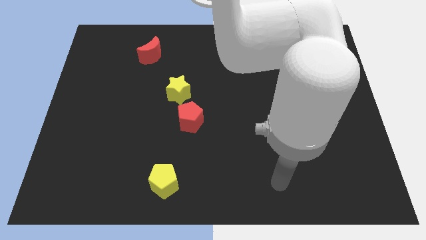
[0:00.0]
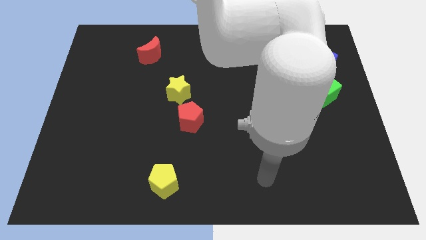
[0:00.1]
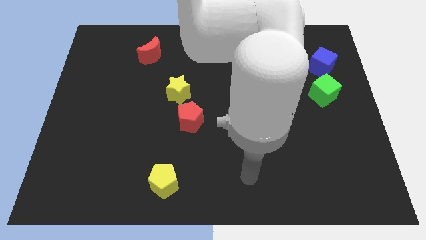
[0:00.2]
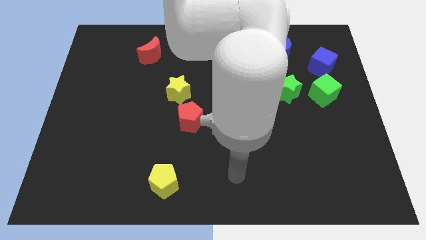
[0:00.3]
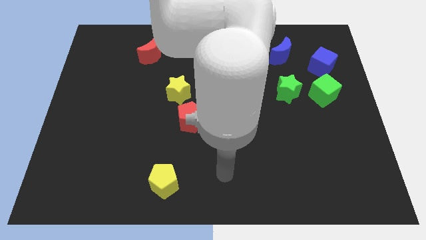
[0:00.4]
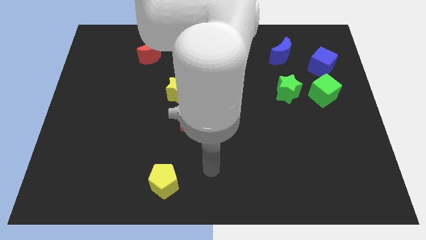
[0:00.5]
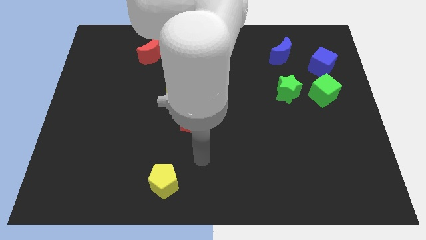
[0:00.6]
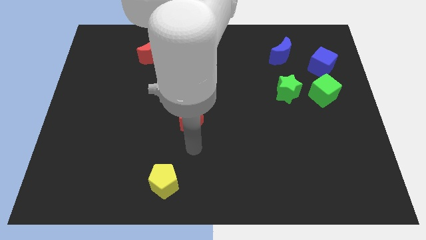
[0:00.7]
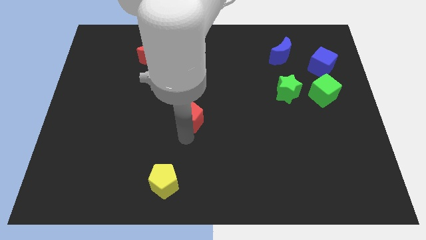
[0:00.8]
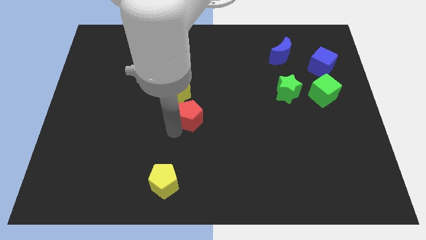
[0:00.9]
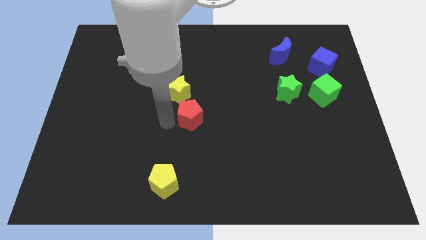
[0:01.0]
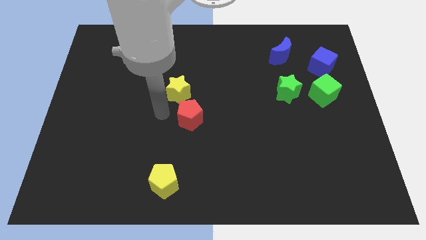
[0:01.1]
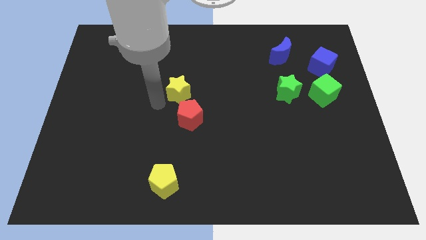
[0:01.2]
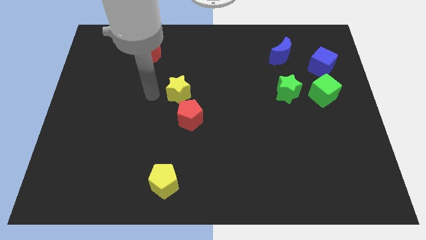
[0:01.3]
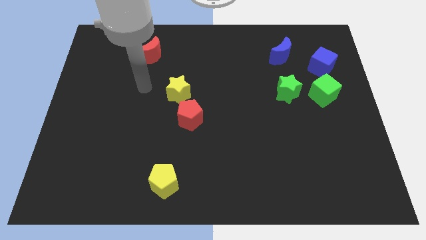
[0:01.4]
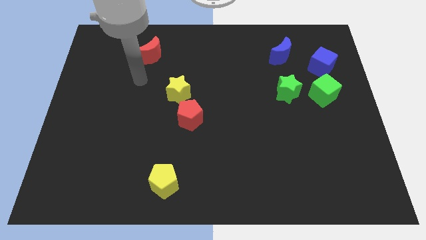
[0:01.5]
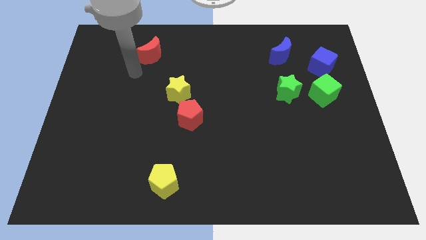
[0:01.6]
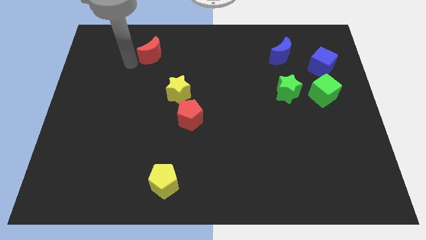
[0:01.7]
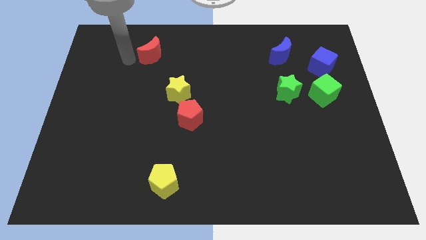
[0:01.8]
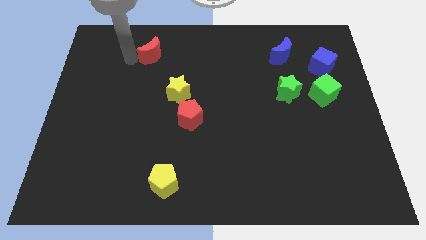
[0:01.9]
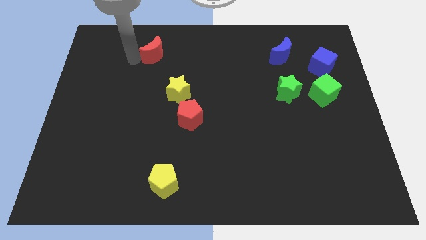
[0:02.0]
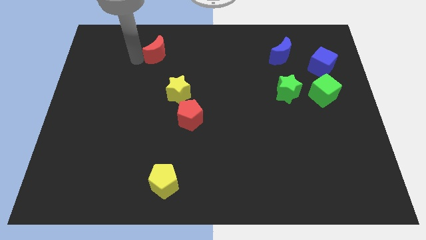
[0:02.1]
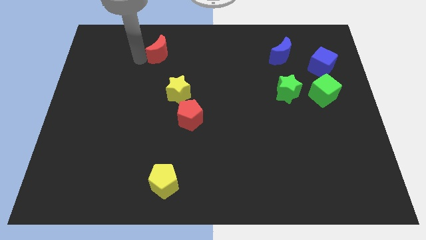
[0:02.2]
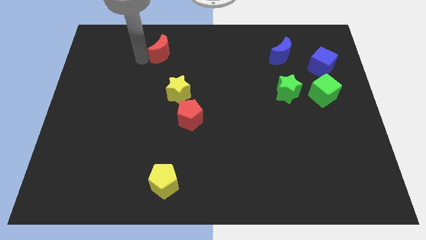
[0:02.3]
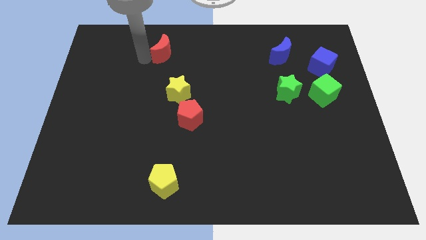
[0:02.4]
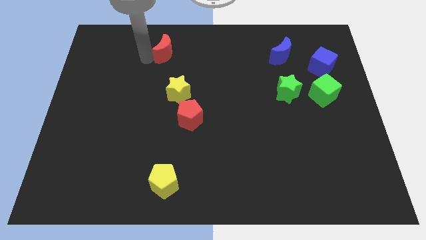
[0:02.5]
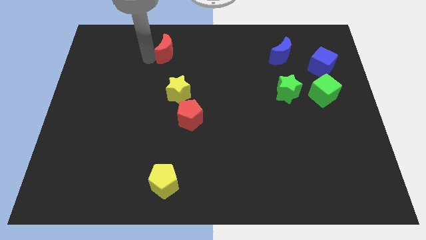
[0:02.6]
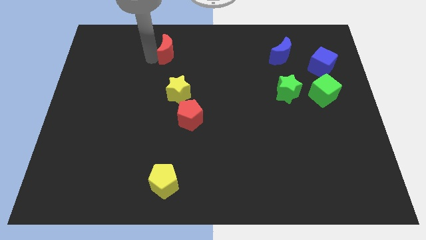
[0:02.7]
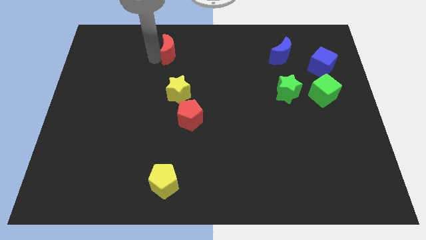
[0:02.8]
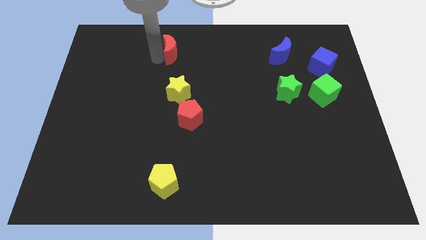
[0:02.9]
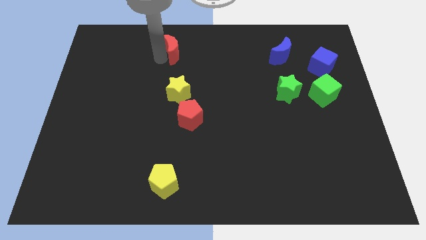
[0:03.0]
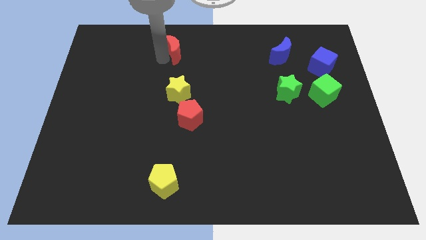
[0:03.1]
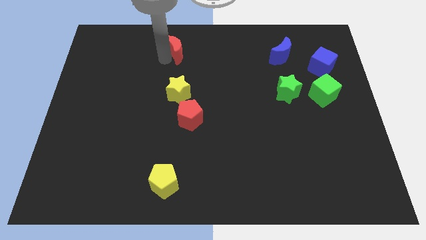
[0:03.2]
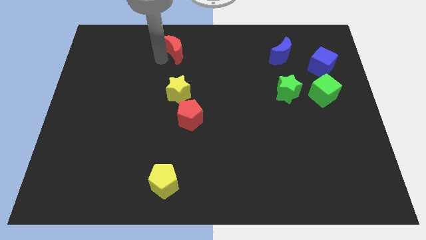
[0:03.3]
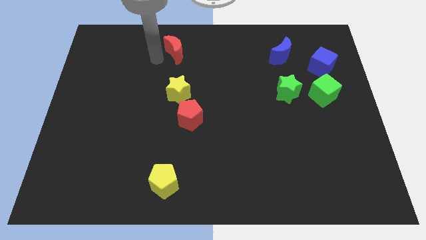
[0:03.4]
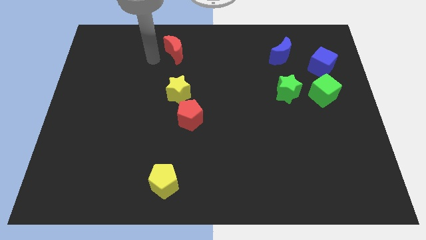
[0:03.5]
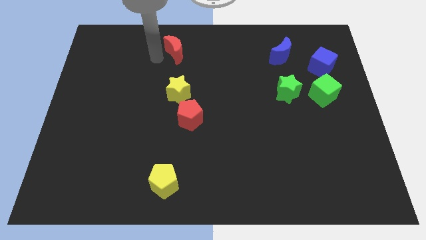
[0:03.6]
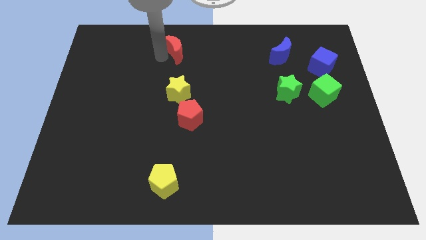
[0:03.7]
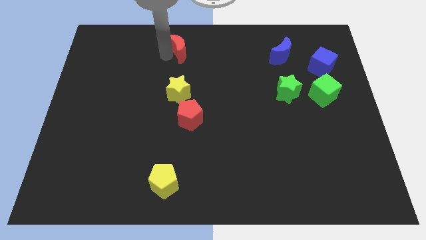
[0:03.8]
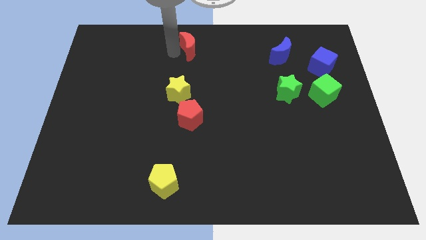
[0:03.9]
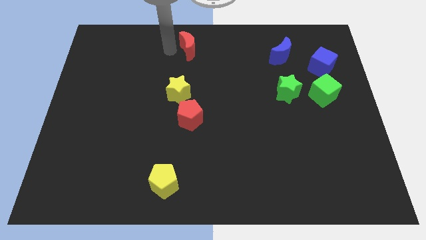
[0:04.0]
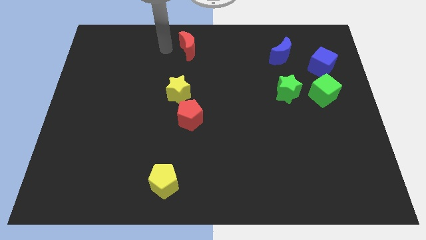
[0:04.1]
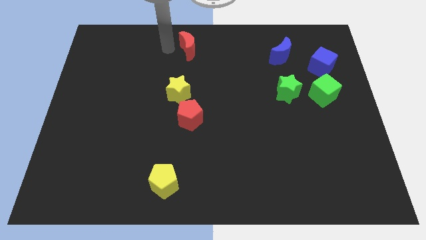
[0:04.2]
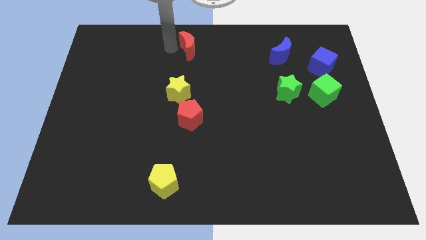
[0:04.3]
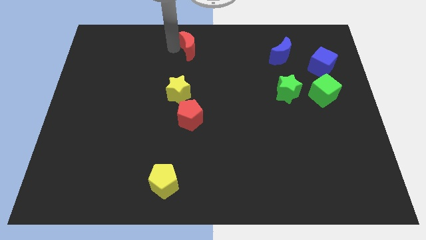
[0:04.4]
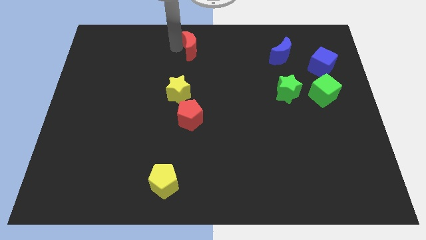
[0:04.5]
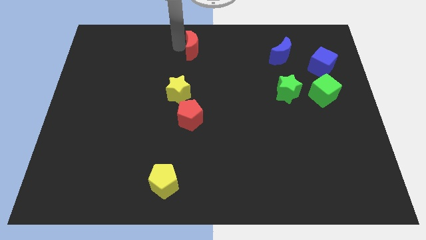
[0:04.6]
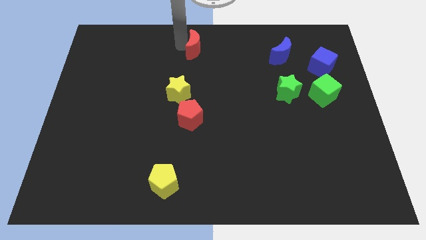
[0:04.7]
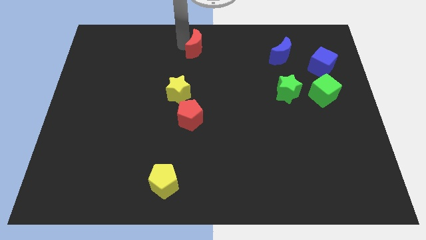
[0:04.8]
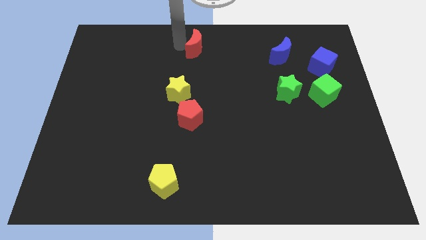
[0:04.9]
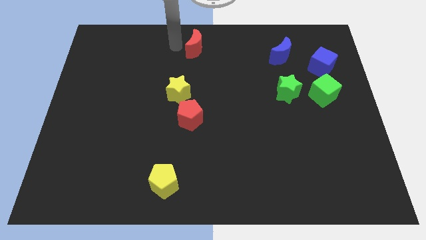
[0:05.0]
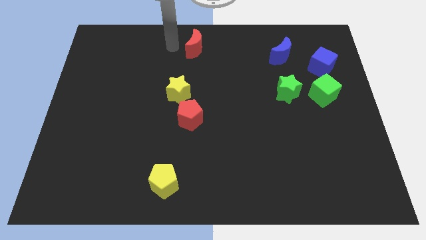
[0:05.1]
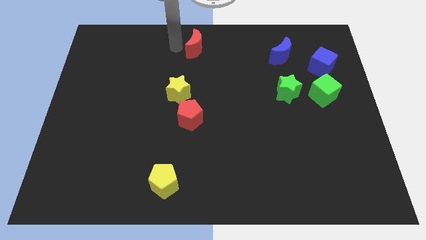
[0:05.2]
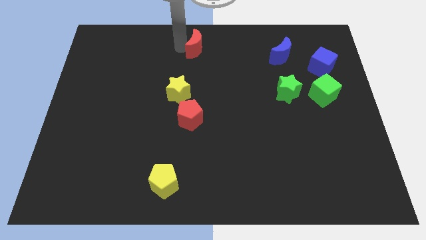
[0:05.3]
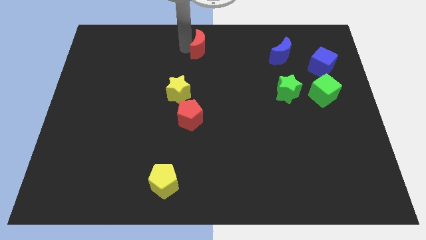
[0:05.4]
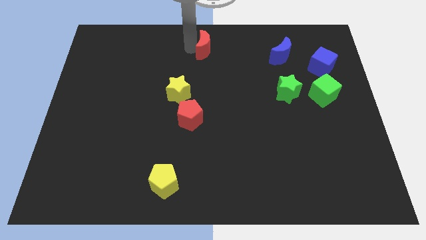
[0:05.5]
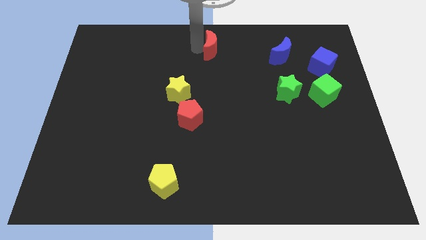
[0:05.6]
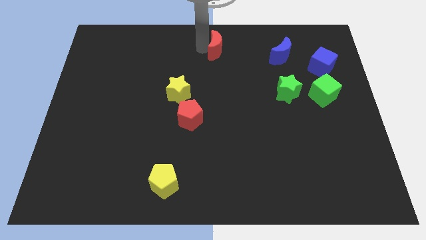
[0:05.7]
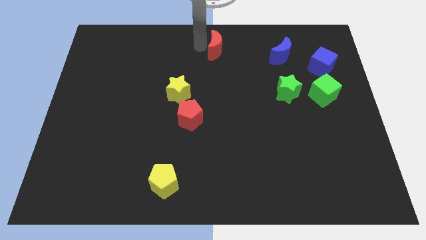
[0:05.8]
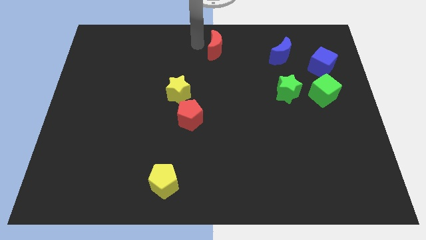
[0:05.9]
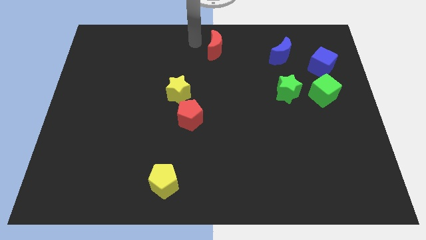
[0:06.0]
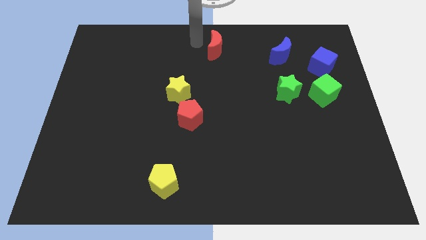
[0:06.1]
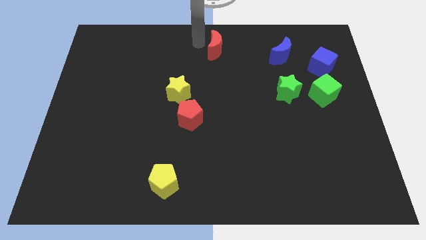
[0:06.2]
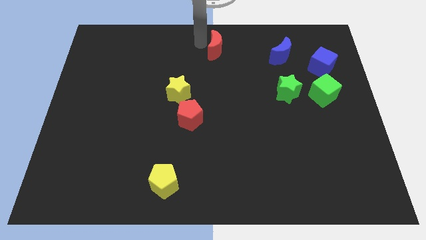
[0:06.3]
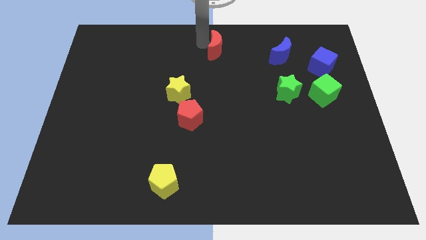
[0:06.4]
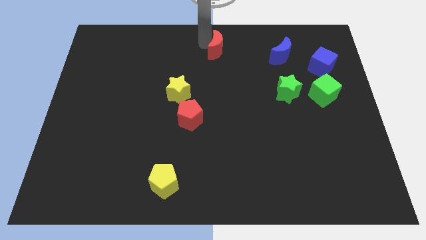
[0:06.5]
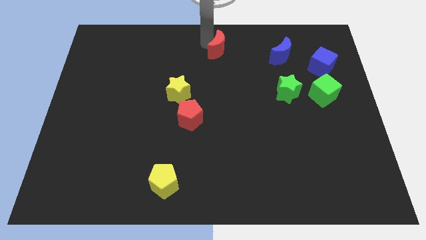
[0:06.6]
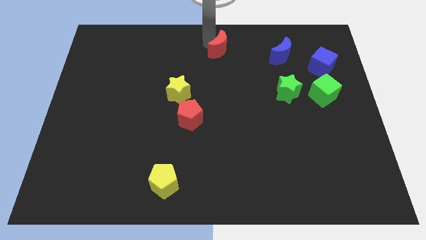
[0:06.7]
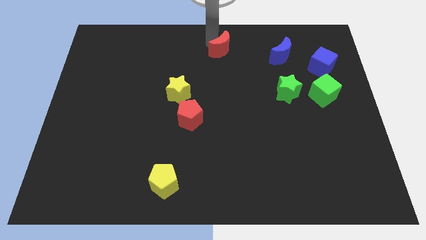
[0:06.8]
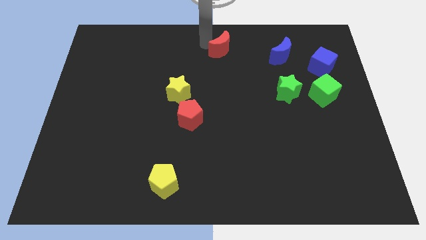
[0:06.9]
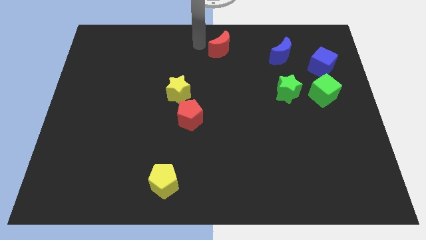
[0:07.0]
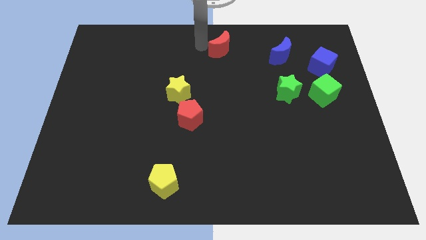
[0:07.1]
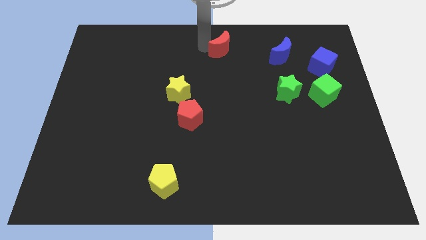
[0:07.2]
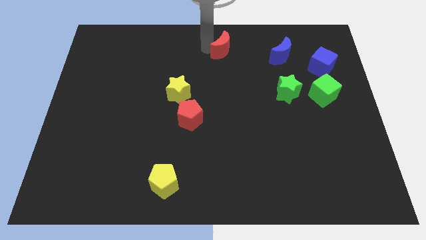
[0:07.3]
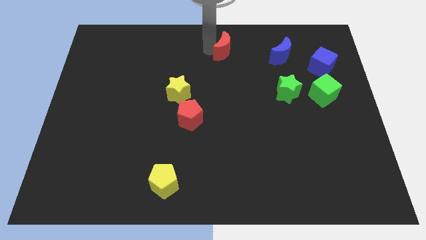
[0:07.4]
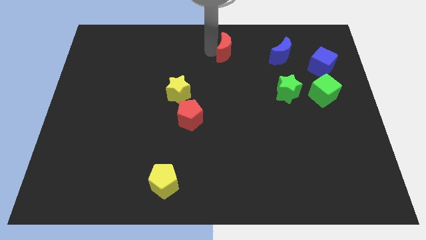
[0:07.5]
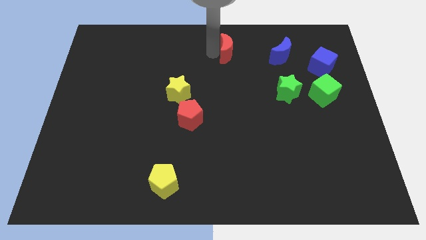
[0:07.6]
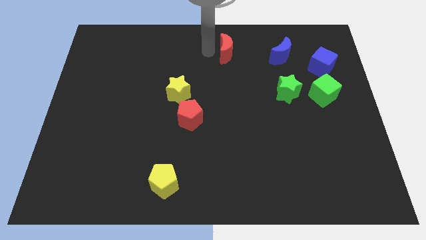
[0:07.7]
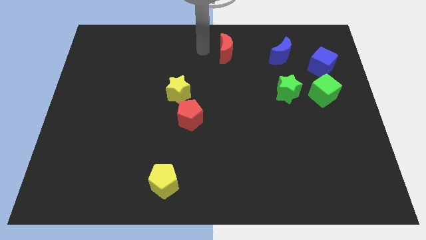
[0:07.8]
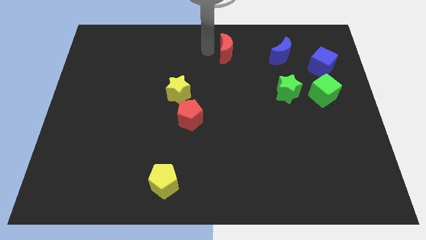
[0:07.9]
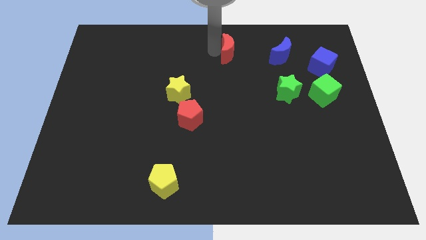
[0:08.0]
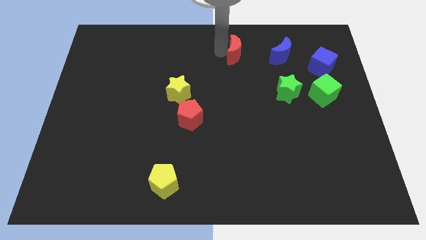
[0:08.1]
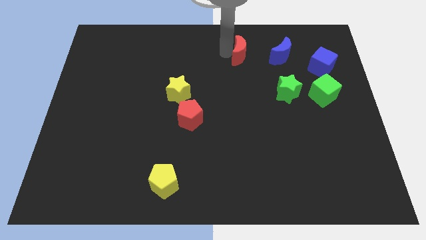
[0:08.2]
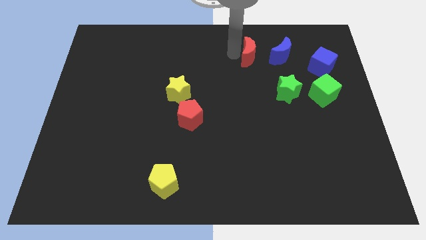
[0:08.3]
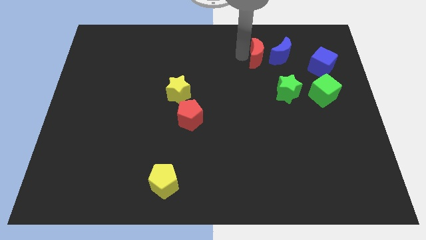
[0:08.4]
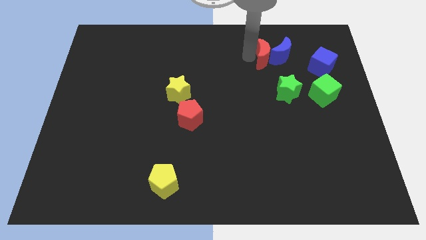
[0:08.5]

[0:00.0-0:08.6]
move the red moon towards the blue moon
